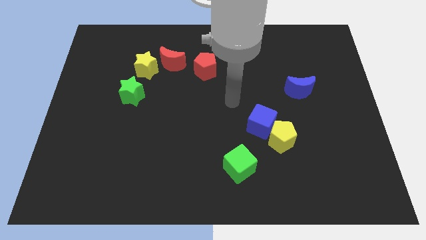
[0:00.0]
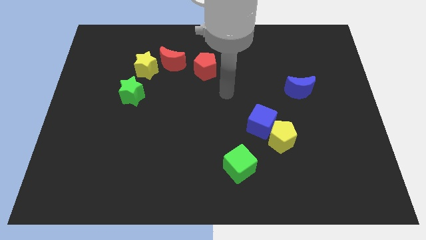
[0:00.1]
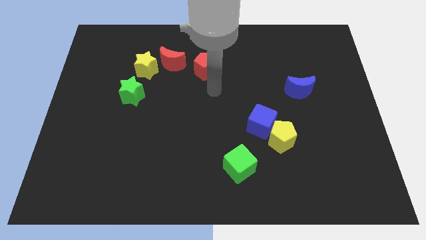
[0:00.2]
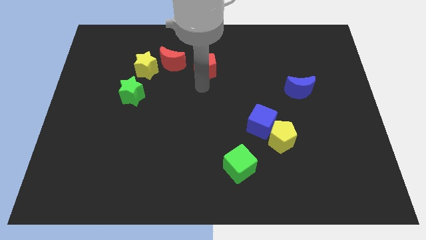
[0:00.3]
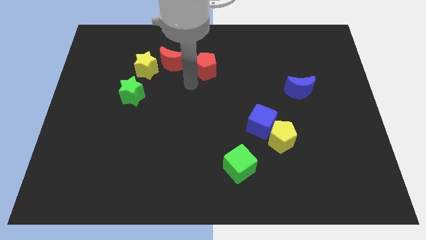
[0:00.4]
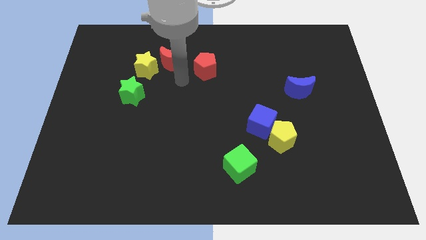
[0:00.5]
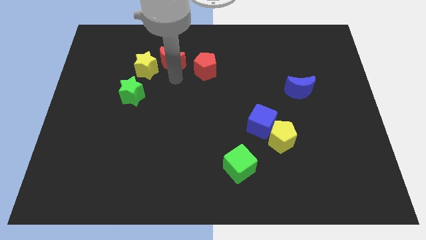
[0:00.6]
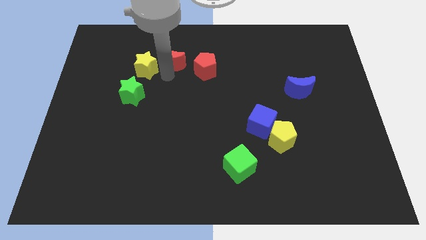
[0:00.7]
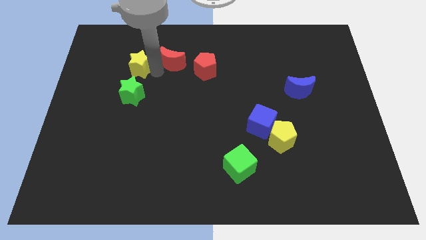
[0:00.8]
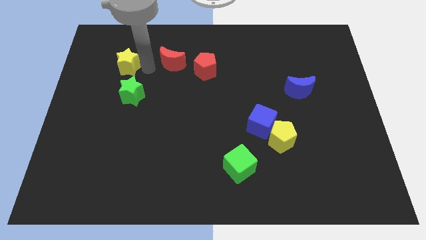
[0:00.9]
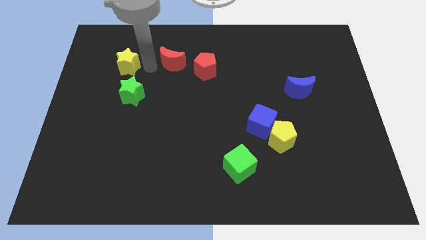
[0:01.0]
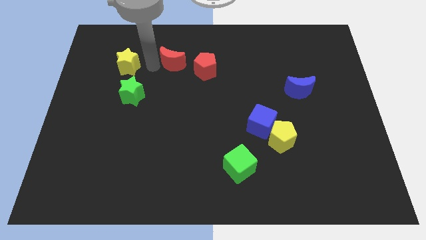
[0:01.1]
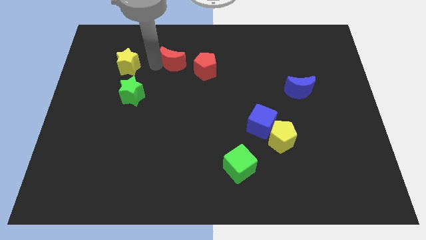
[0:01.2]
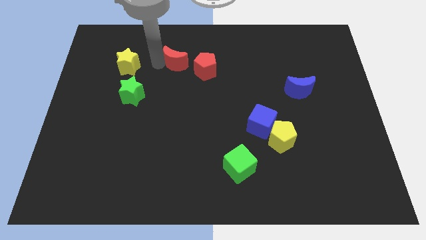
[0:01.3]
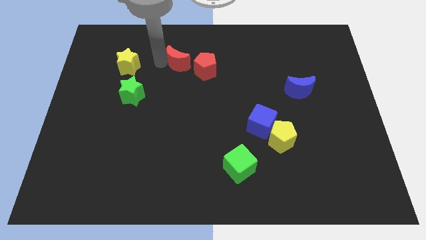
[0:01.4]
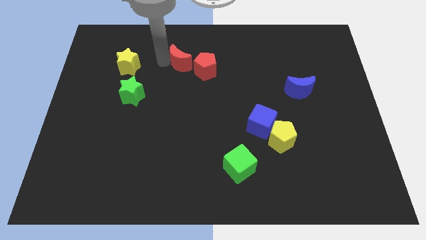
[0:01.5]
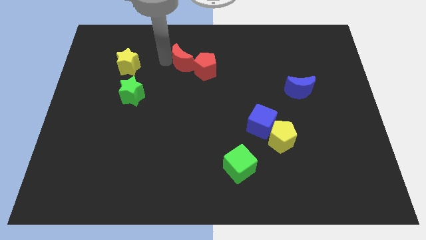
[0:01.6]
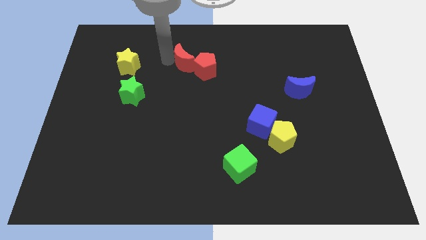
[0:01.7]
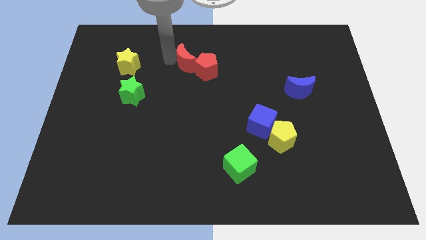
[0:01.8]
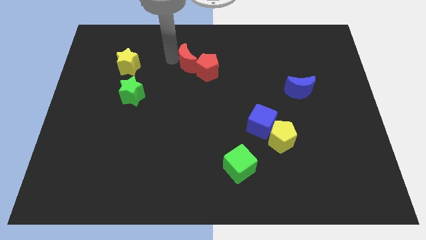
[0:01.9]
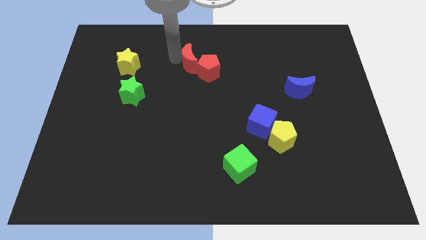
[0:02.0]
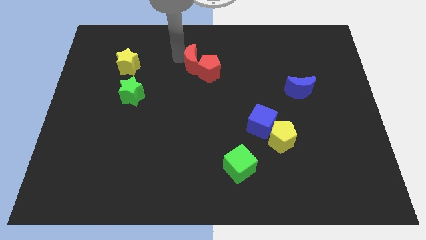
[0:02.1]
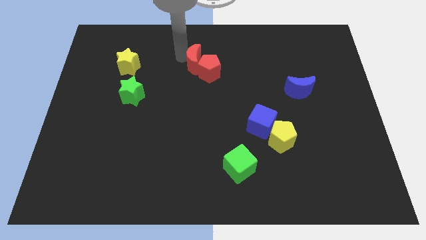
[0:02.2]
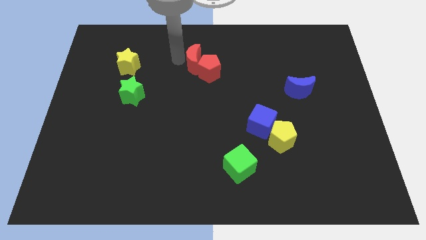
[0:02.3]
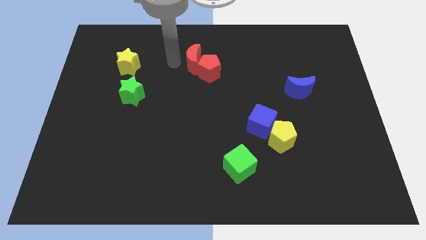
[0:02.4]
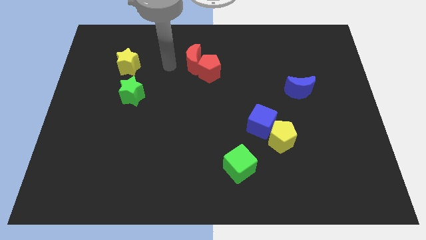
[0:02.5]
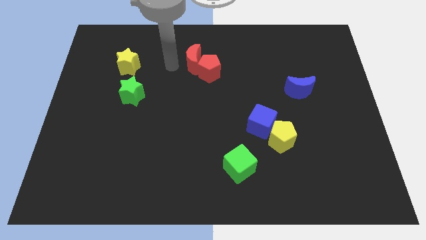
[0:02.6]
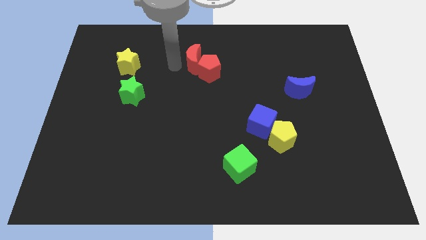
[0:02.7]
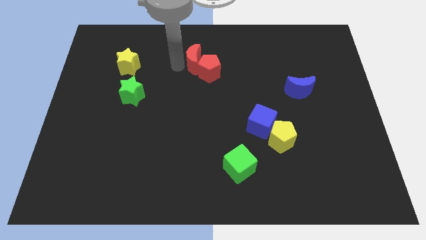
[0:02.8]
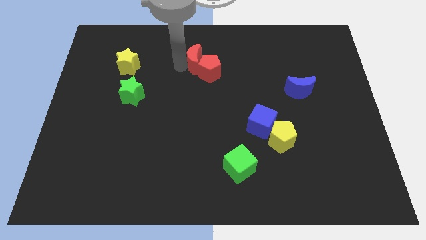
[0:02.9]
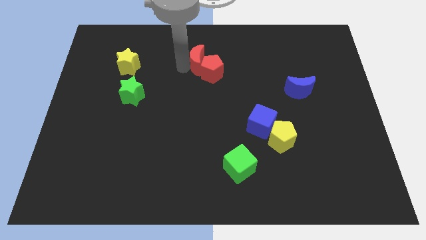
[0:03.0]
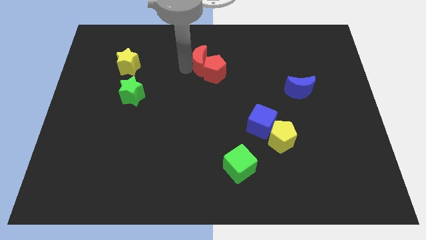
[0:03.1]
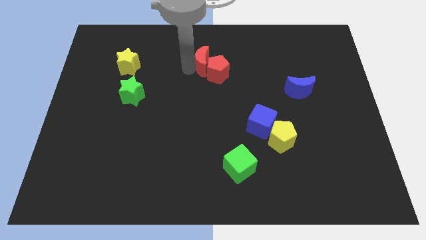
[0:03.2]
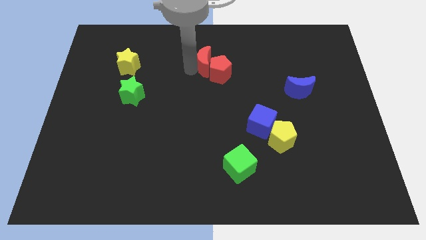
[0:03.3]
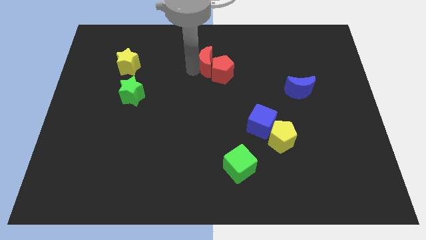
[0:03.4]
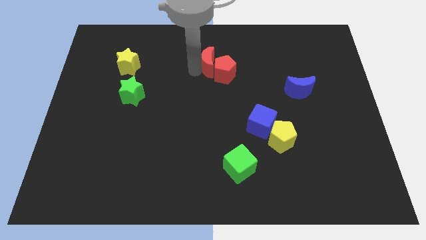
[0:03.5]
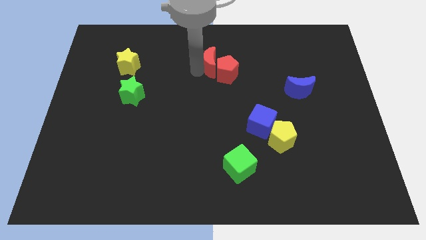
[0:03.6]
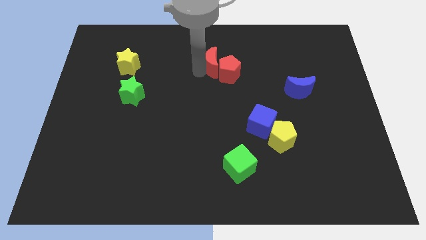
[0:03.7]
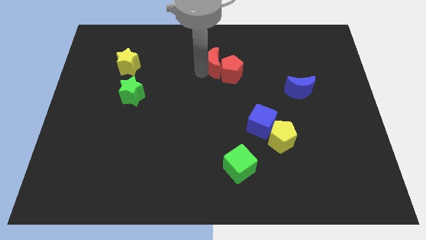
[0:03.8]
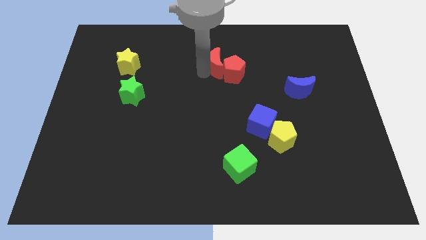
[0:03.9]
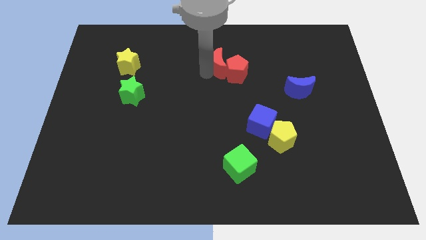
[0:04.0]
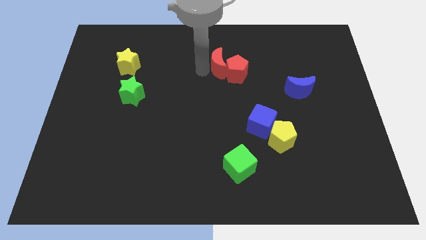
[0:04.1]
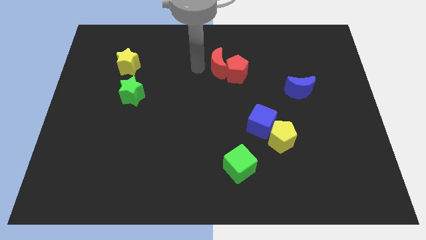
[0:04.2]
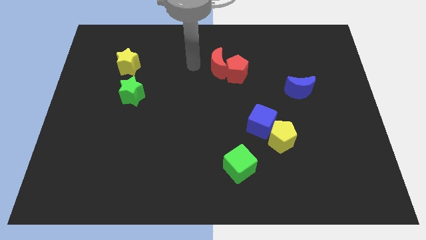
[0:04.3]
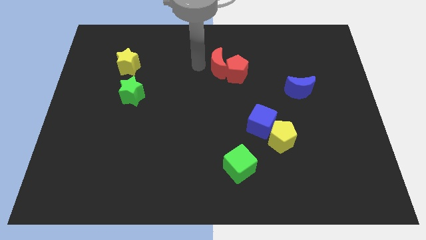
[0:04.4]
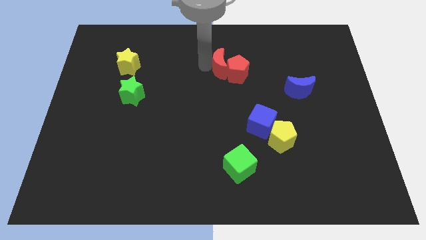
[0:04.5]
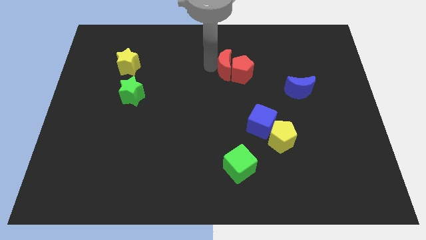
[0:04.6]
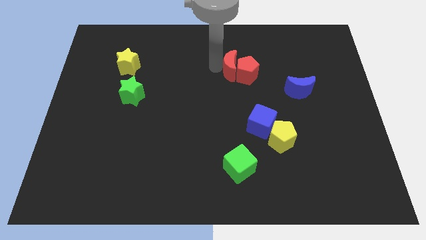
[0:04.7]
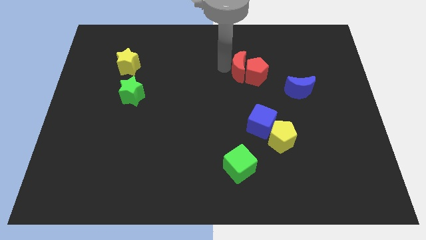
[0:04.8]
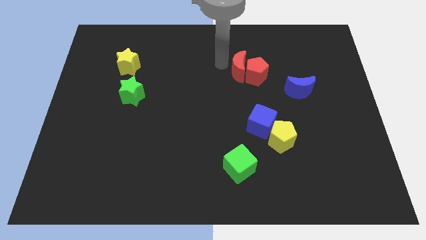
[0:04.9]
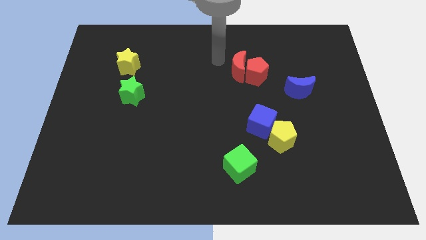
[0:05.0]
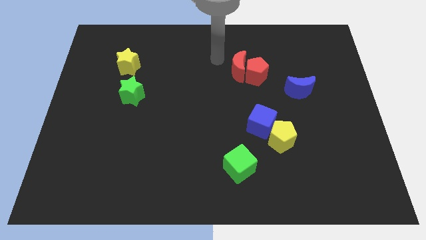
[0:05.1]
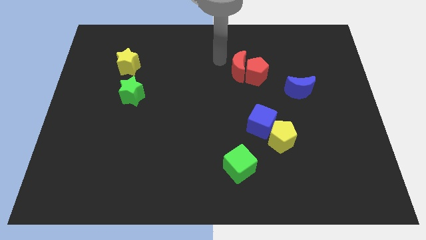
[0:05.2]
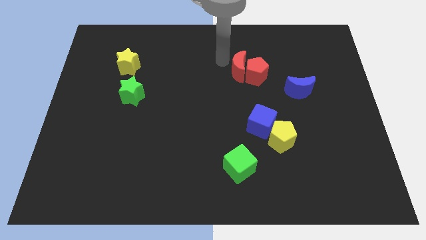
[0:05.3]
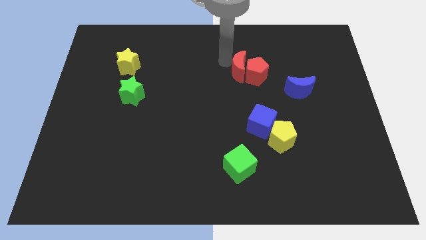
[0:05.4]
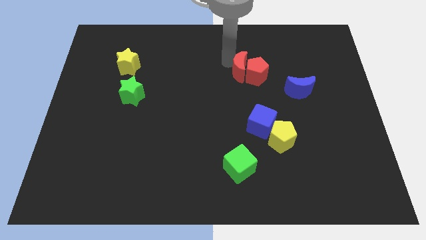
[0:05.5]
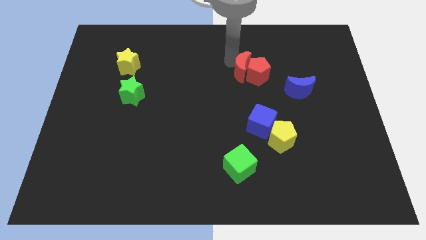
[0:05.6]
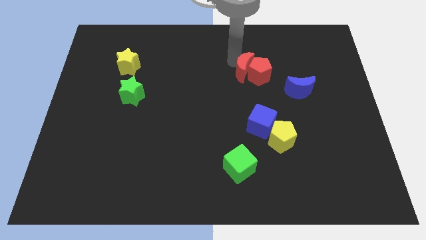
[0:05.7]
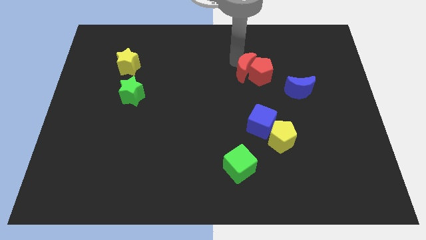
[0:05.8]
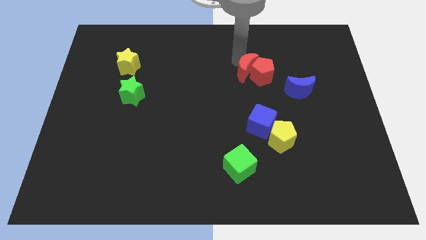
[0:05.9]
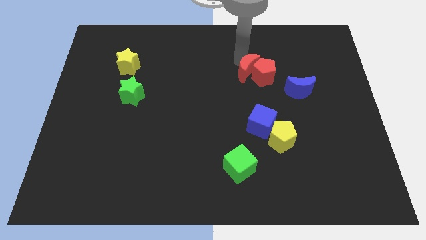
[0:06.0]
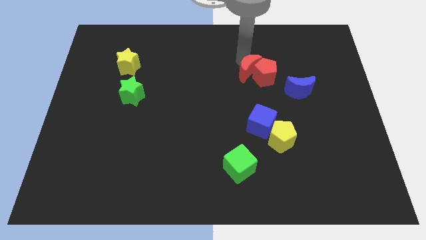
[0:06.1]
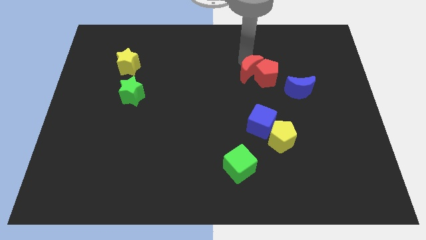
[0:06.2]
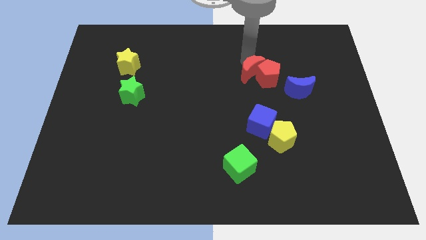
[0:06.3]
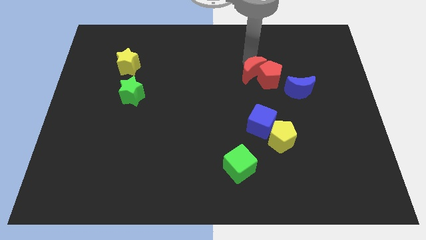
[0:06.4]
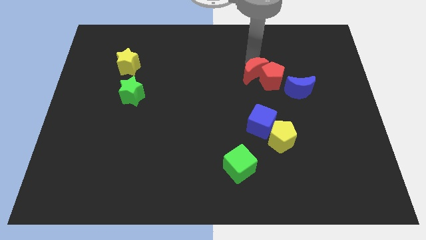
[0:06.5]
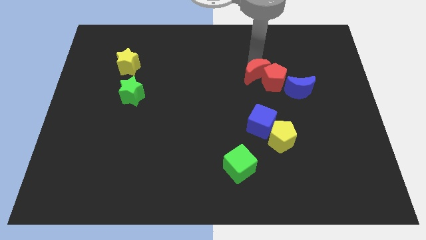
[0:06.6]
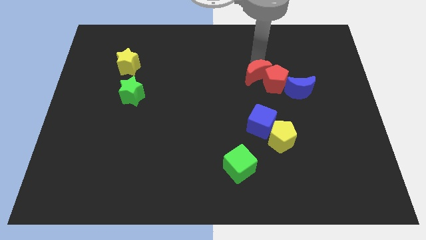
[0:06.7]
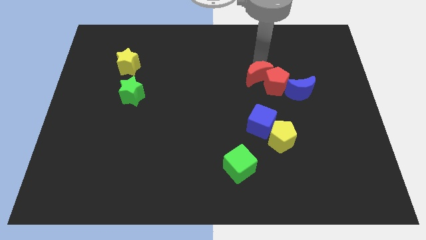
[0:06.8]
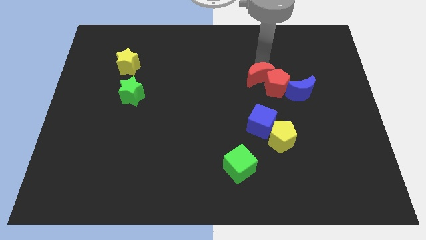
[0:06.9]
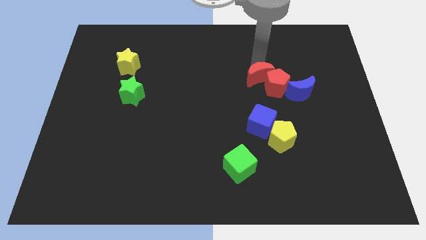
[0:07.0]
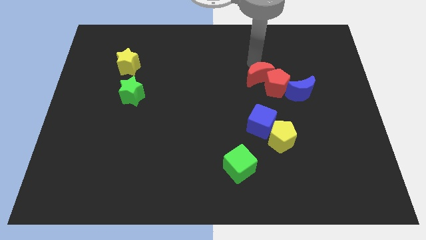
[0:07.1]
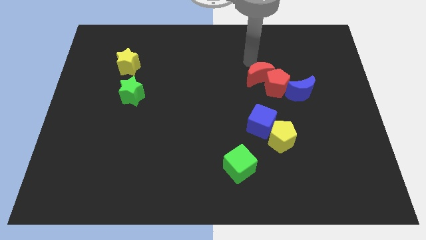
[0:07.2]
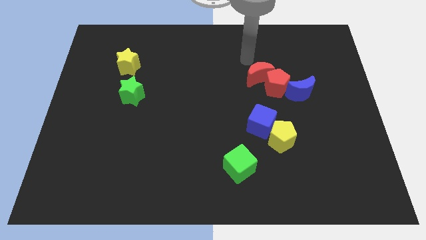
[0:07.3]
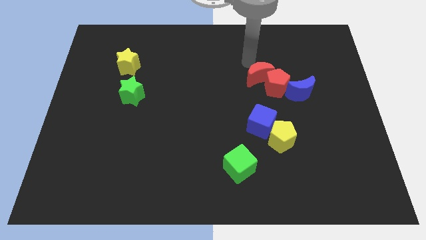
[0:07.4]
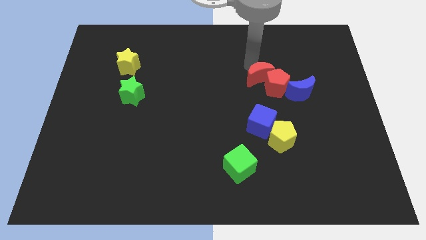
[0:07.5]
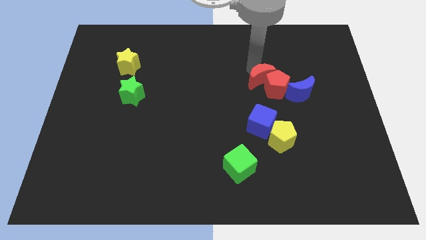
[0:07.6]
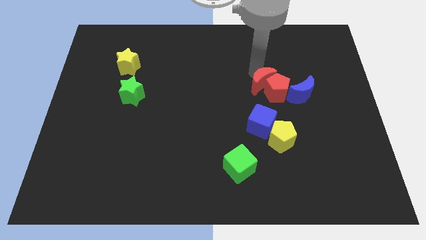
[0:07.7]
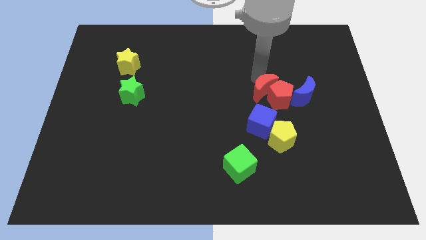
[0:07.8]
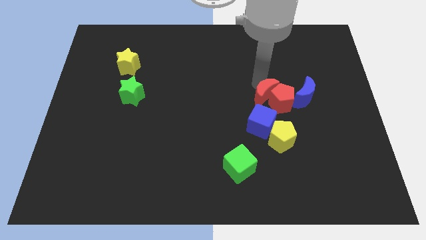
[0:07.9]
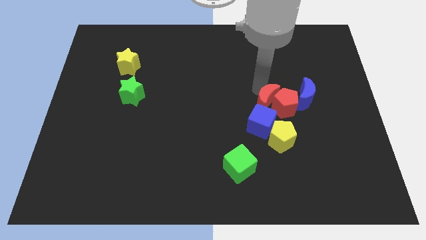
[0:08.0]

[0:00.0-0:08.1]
push the red moon to the top right side of the blue cube
